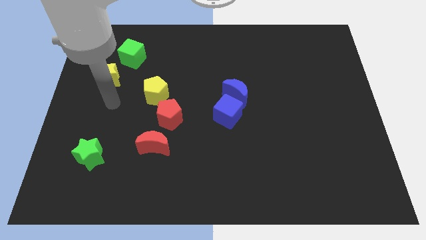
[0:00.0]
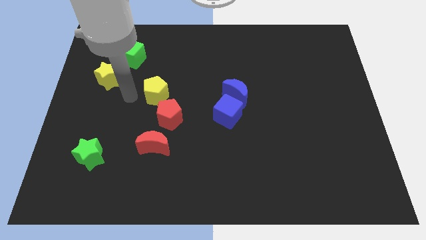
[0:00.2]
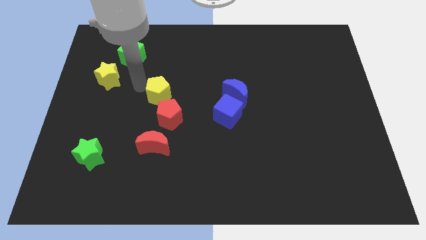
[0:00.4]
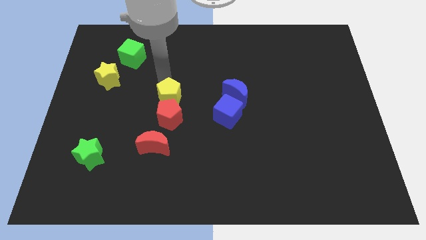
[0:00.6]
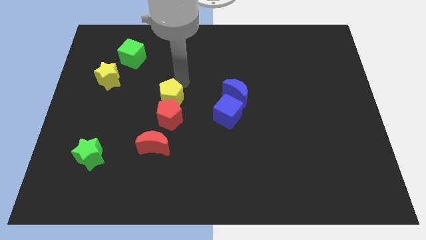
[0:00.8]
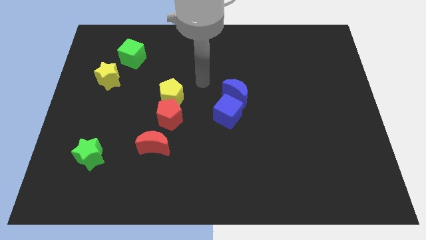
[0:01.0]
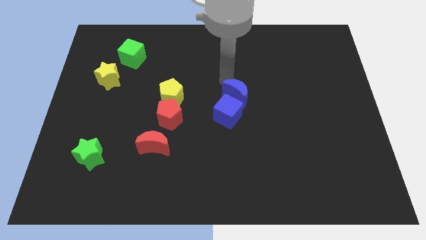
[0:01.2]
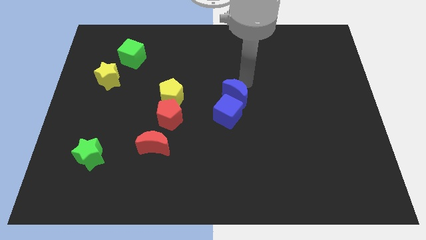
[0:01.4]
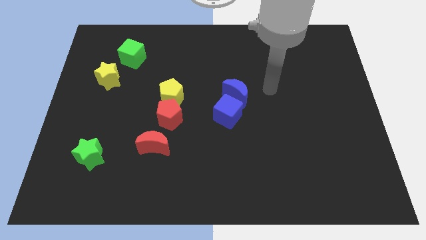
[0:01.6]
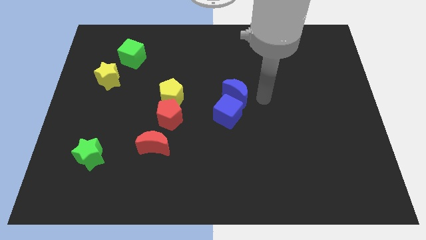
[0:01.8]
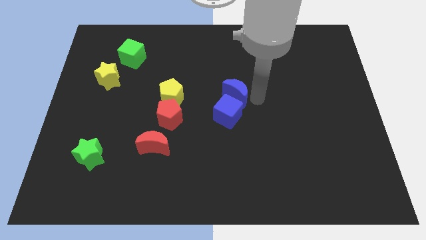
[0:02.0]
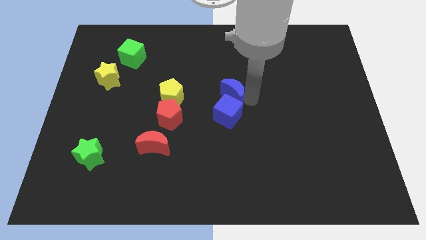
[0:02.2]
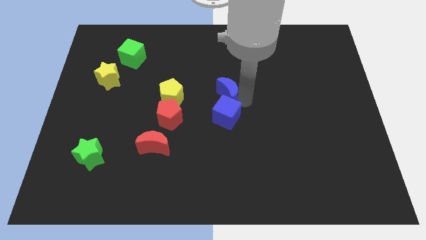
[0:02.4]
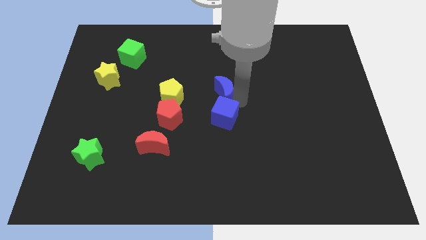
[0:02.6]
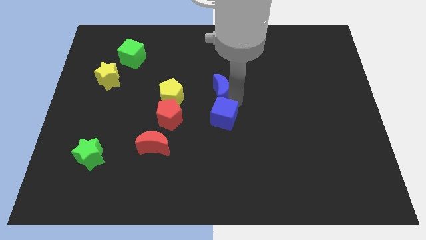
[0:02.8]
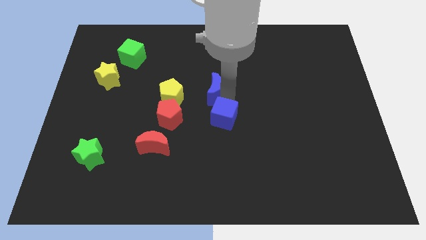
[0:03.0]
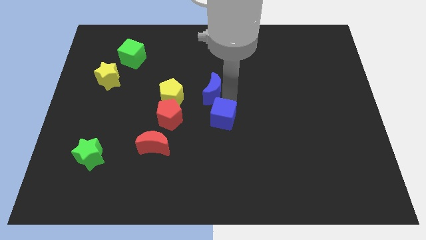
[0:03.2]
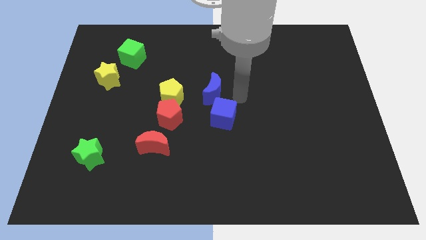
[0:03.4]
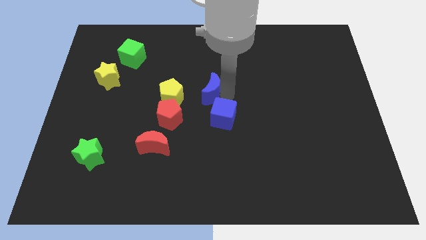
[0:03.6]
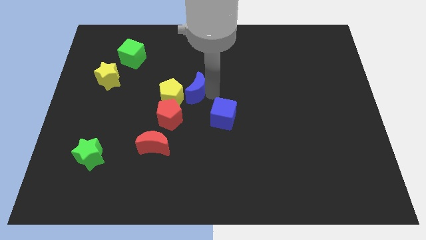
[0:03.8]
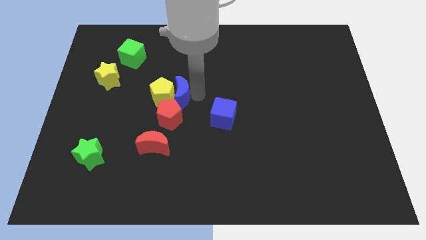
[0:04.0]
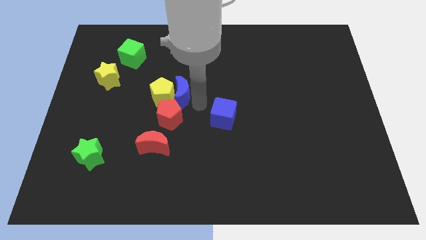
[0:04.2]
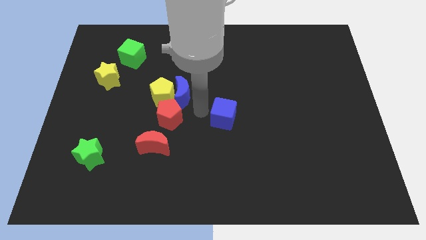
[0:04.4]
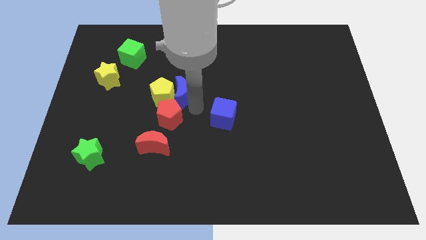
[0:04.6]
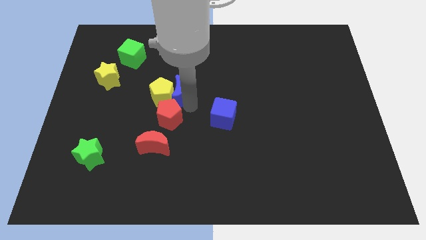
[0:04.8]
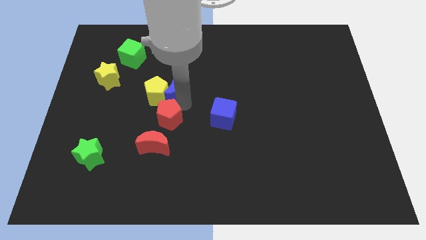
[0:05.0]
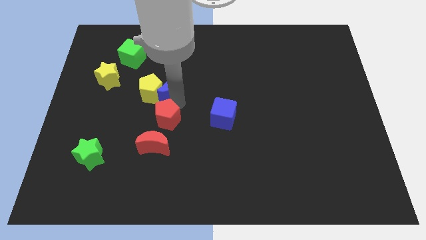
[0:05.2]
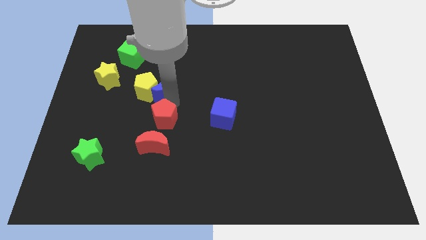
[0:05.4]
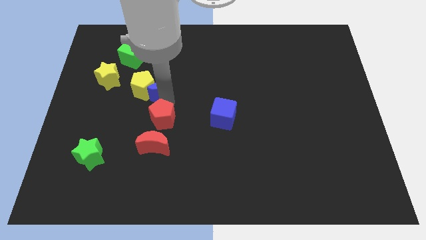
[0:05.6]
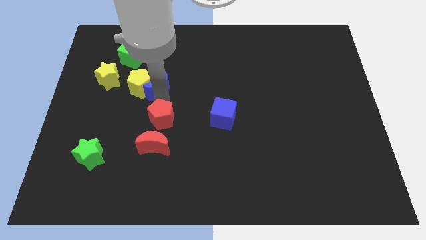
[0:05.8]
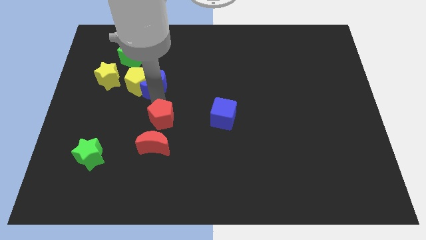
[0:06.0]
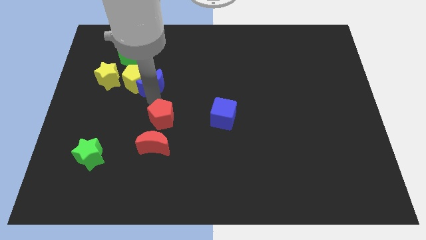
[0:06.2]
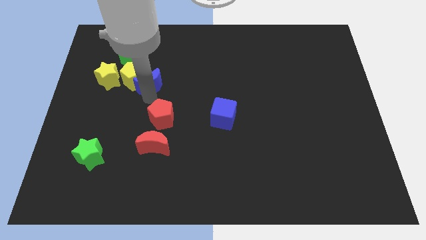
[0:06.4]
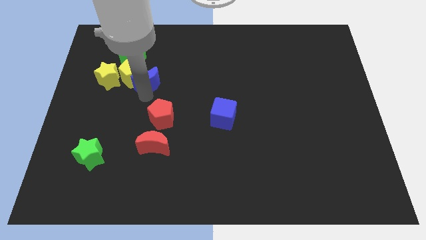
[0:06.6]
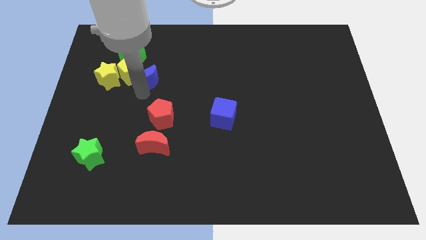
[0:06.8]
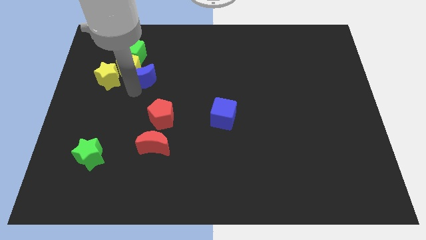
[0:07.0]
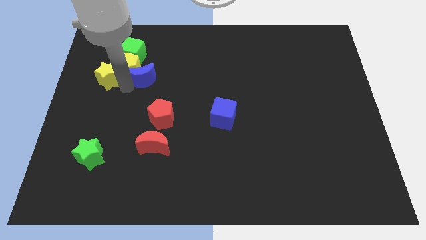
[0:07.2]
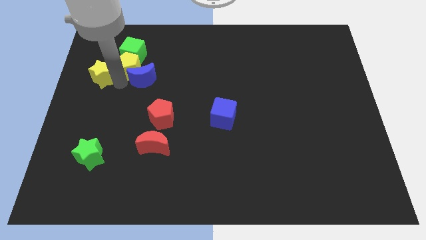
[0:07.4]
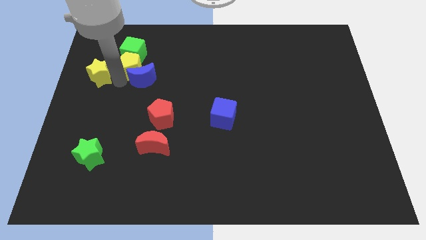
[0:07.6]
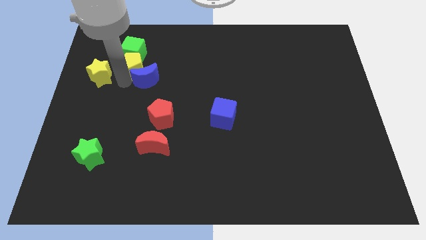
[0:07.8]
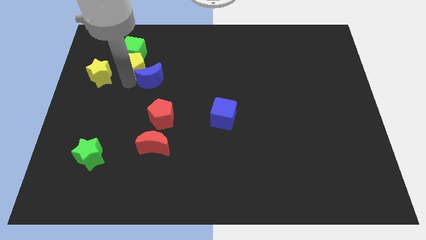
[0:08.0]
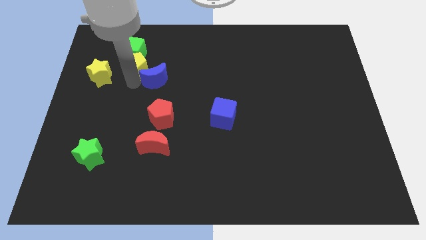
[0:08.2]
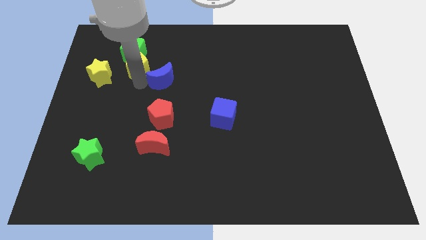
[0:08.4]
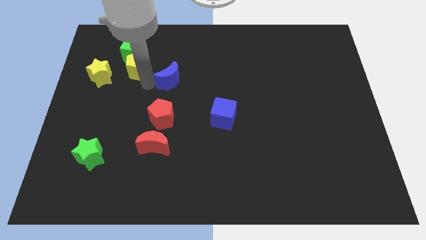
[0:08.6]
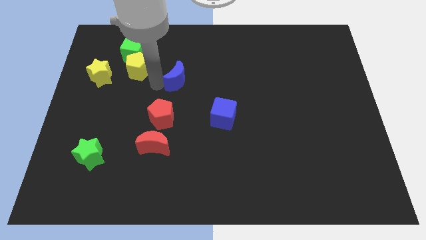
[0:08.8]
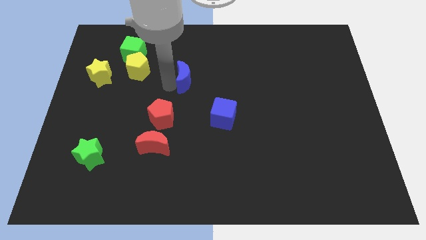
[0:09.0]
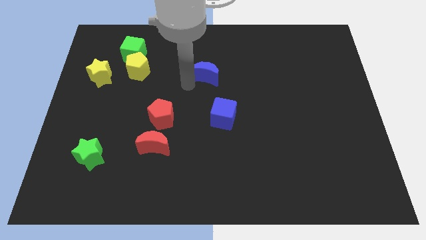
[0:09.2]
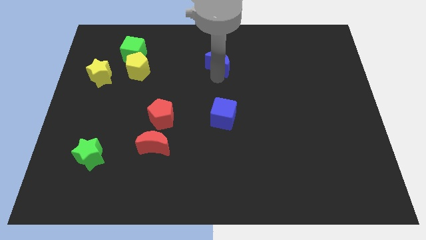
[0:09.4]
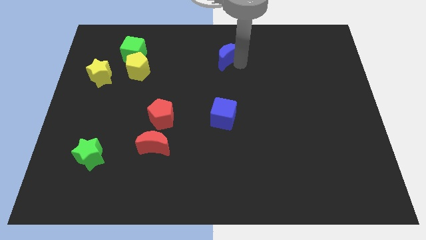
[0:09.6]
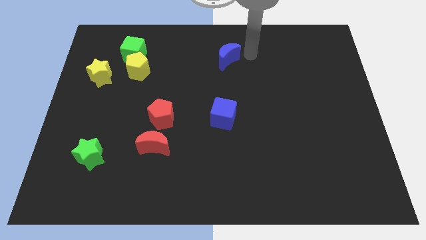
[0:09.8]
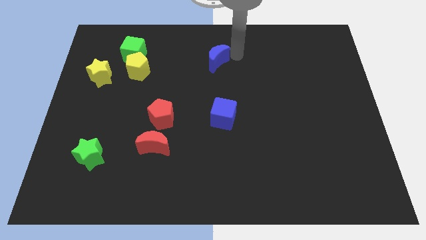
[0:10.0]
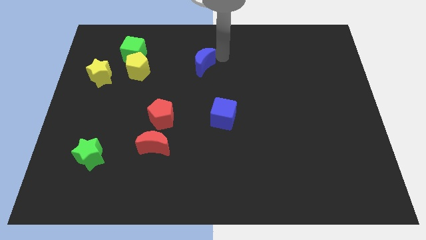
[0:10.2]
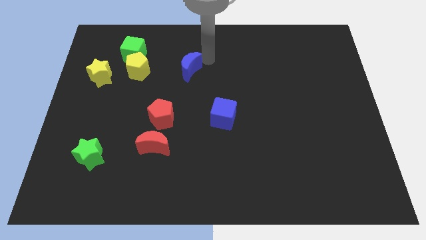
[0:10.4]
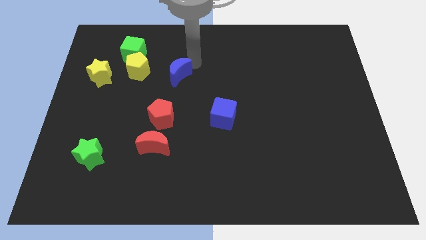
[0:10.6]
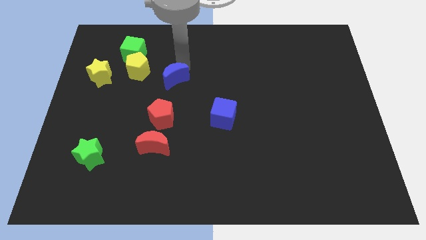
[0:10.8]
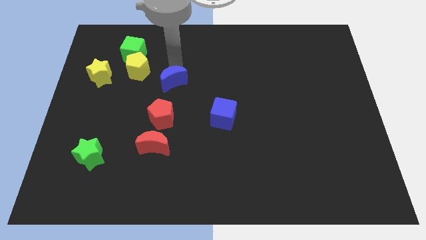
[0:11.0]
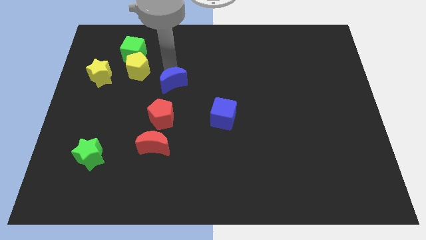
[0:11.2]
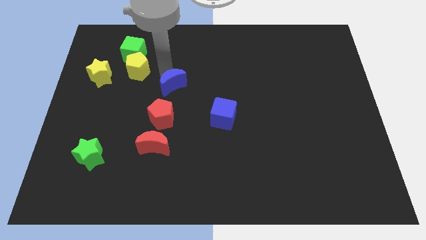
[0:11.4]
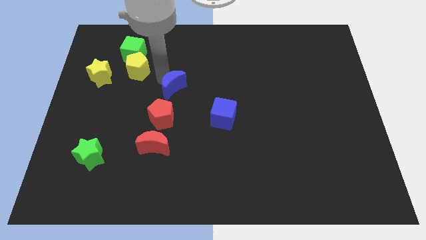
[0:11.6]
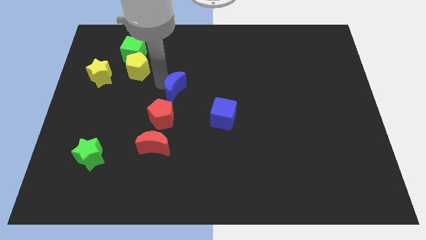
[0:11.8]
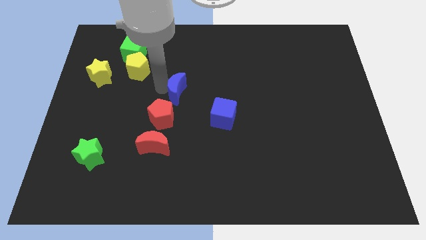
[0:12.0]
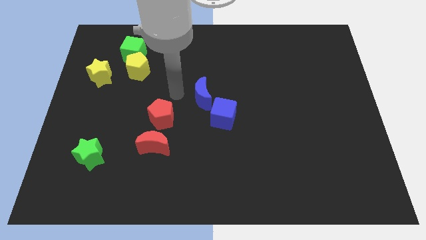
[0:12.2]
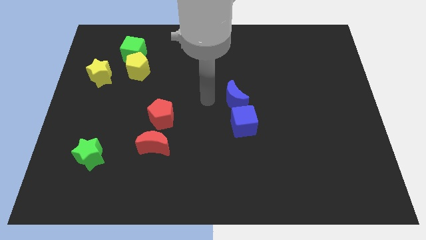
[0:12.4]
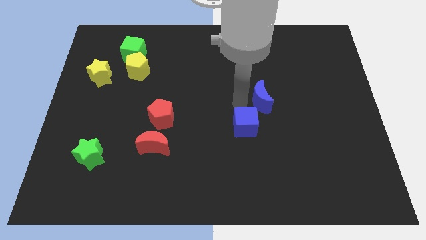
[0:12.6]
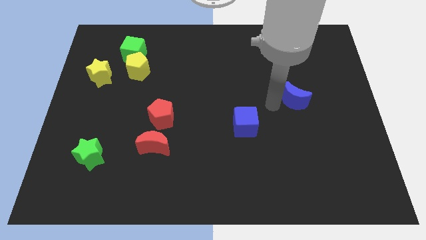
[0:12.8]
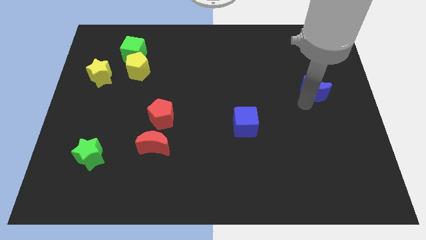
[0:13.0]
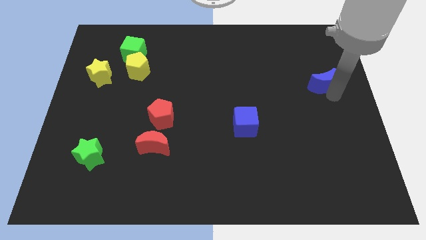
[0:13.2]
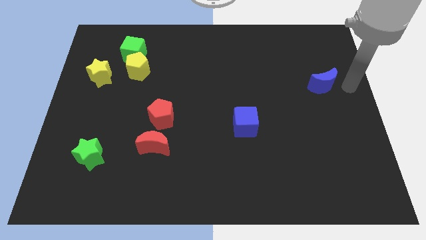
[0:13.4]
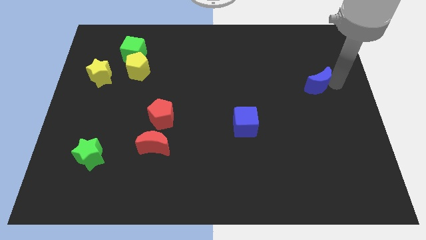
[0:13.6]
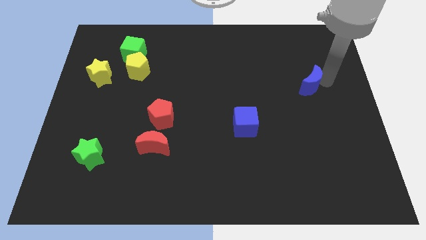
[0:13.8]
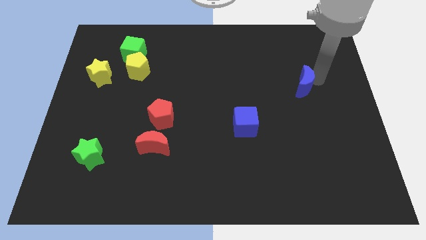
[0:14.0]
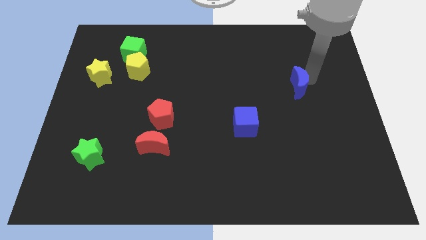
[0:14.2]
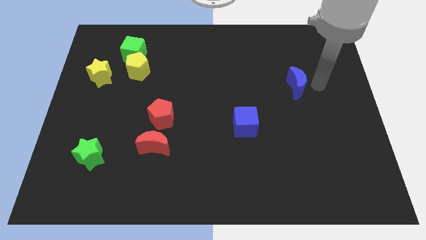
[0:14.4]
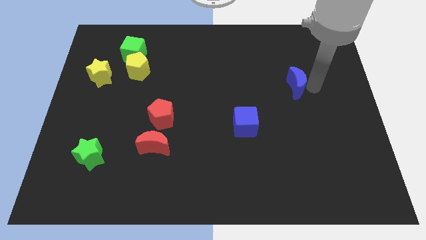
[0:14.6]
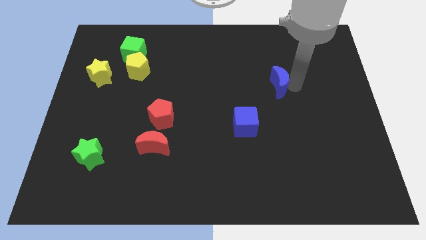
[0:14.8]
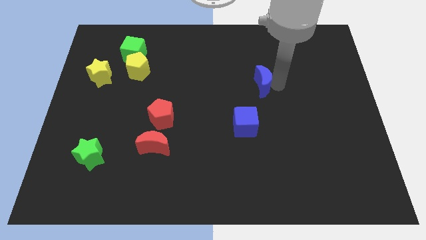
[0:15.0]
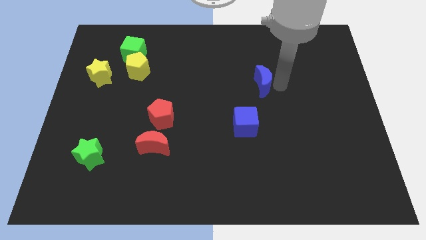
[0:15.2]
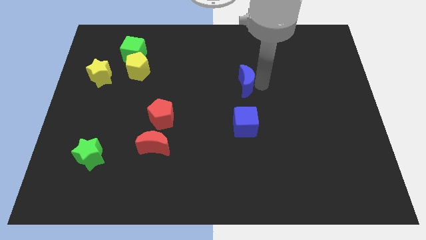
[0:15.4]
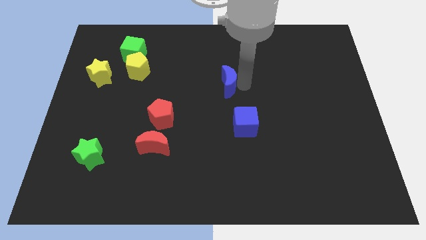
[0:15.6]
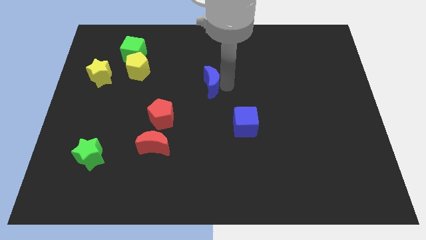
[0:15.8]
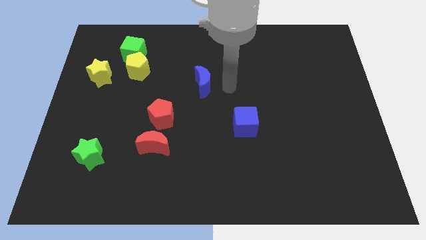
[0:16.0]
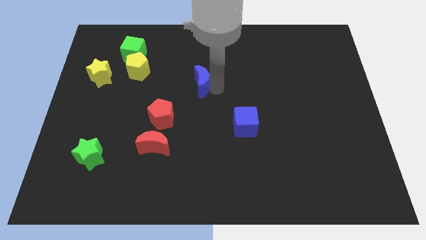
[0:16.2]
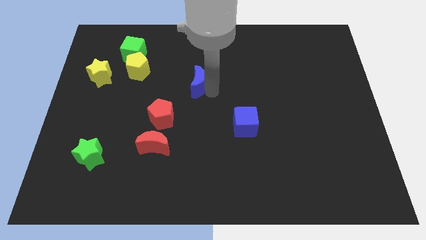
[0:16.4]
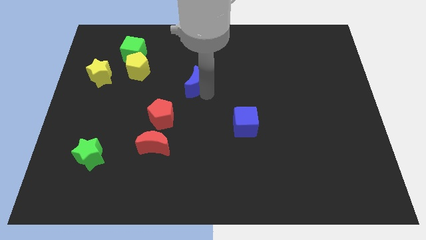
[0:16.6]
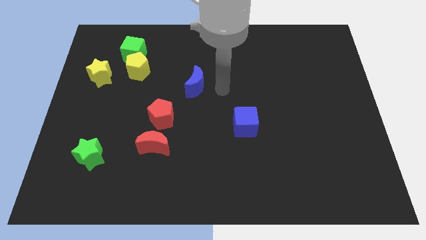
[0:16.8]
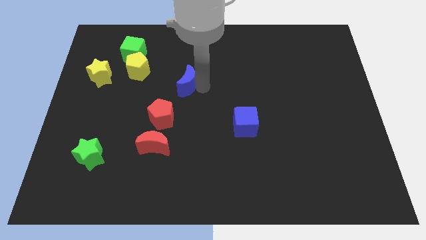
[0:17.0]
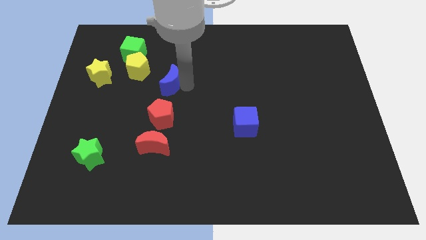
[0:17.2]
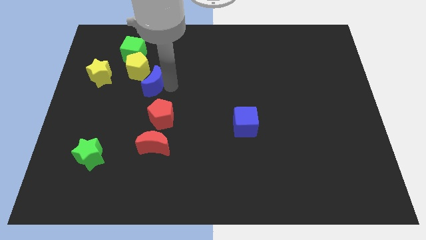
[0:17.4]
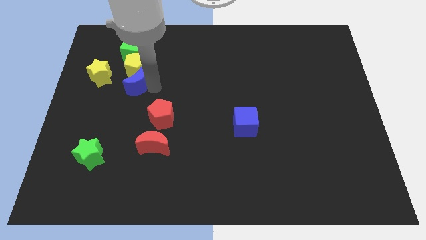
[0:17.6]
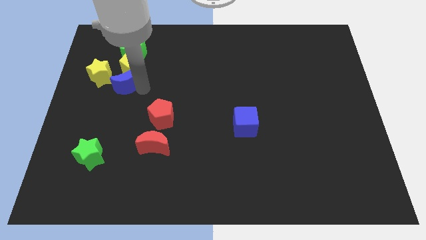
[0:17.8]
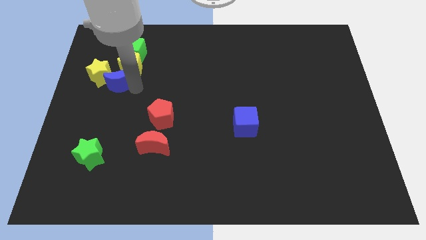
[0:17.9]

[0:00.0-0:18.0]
push the blue moon close to the yellow star
